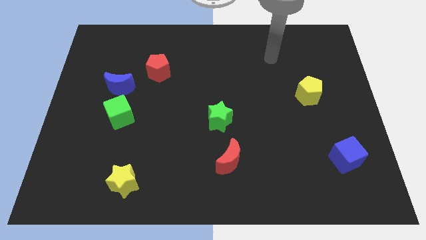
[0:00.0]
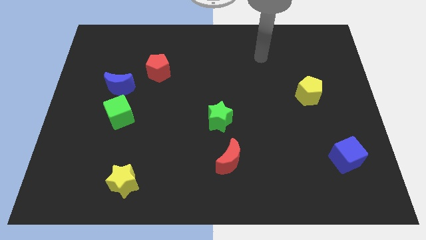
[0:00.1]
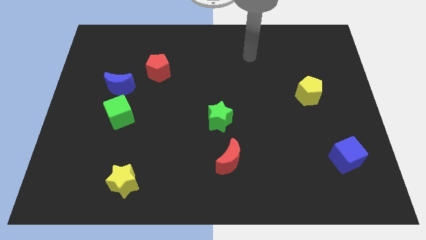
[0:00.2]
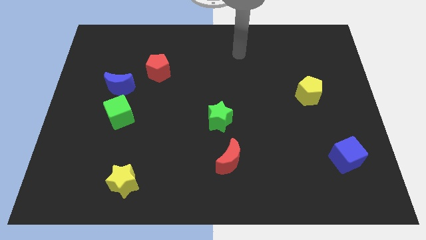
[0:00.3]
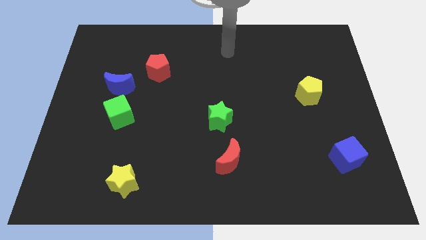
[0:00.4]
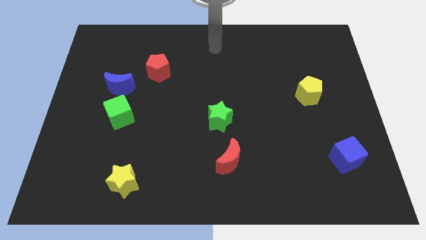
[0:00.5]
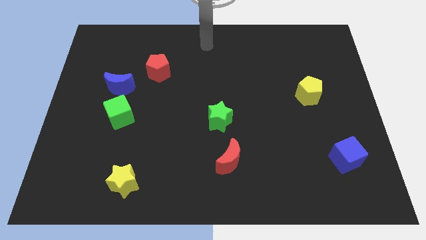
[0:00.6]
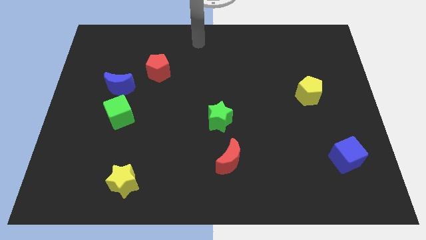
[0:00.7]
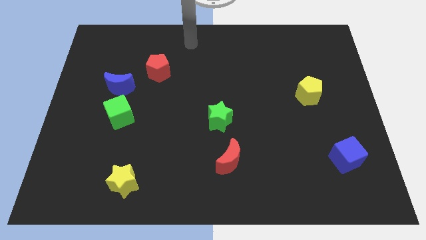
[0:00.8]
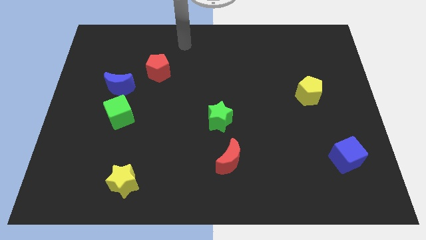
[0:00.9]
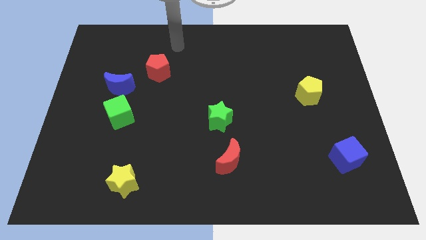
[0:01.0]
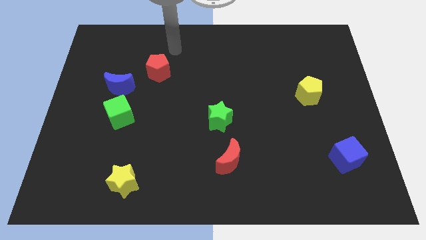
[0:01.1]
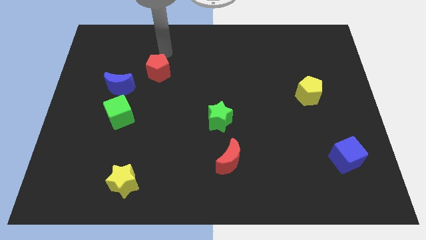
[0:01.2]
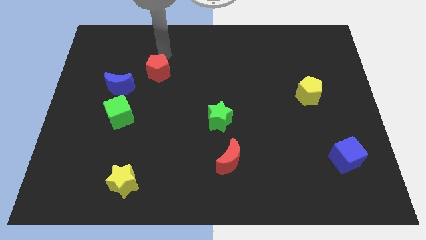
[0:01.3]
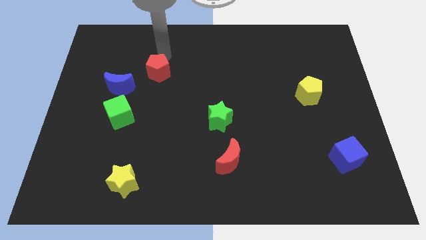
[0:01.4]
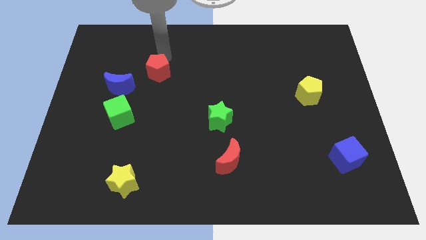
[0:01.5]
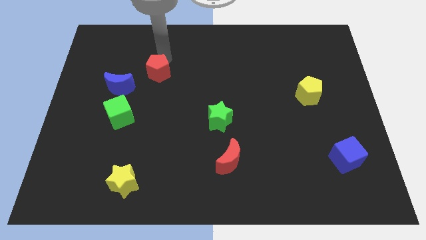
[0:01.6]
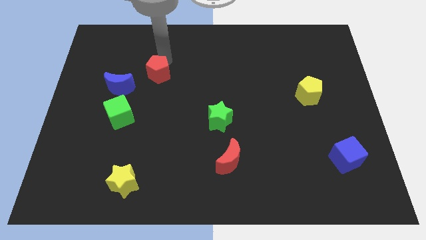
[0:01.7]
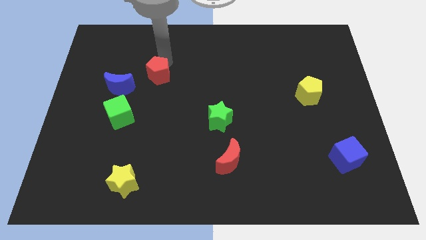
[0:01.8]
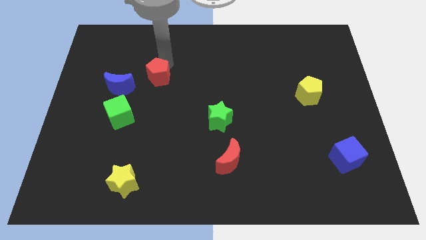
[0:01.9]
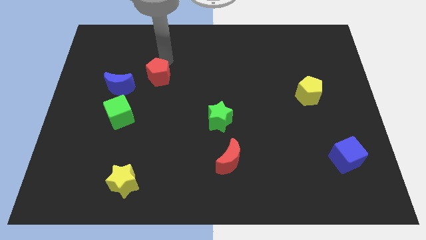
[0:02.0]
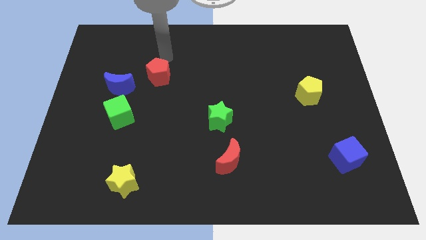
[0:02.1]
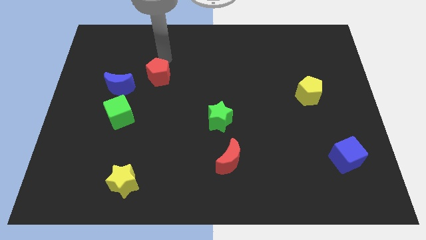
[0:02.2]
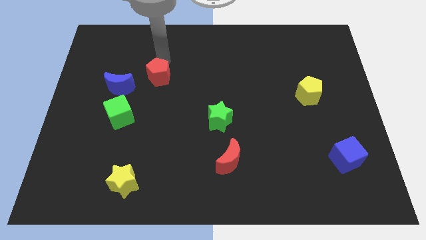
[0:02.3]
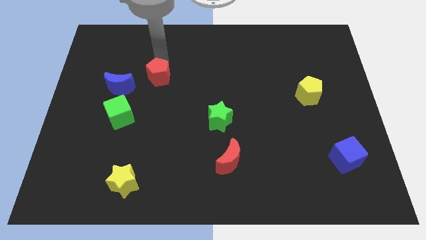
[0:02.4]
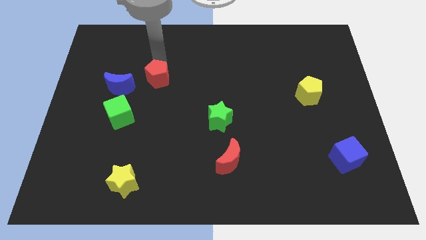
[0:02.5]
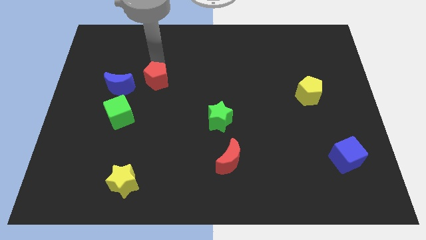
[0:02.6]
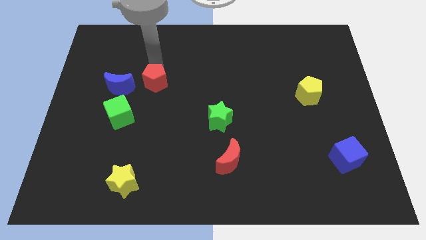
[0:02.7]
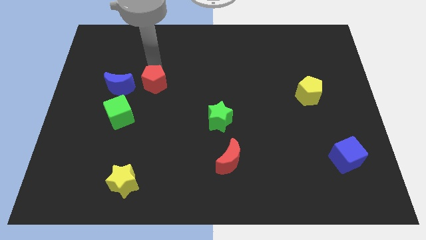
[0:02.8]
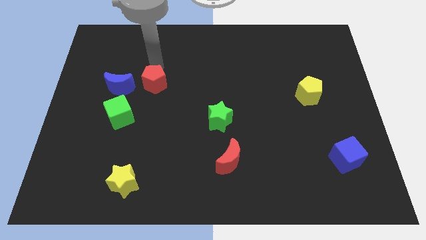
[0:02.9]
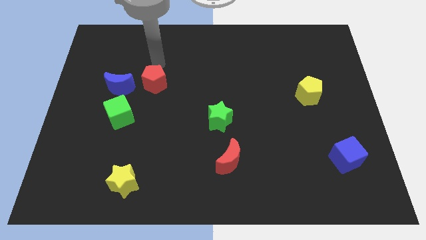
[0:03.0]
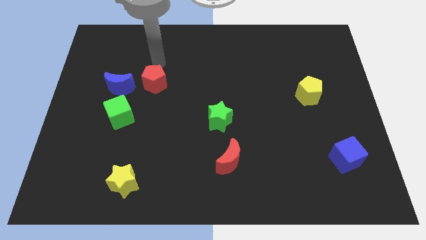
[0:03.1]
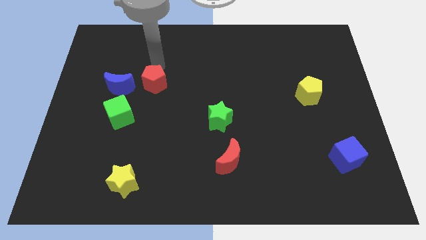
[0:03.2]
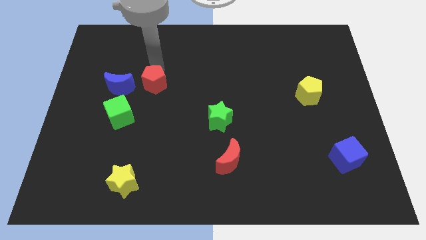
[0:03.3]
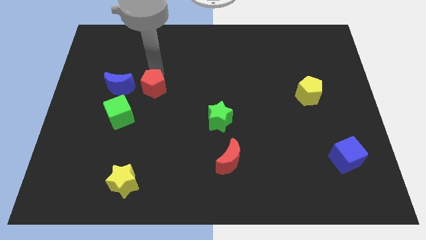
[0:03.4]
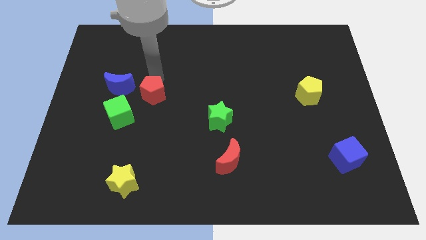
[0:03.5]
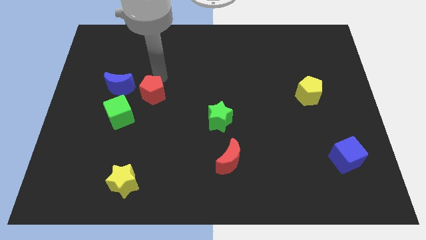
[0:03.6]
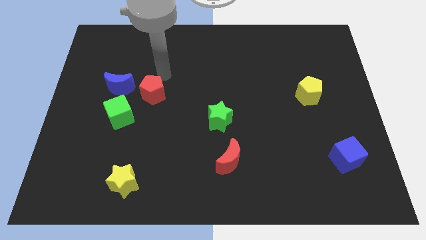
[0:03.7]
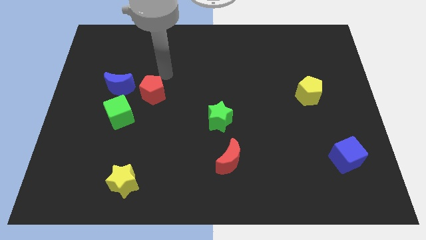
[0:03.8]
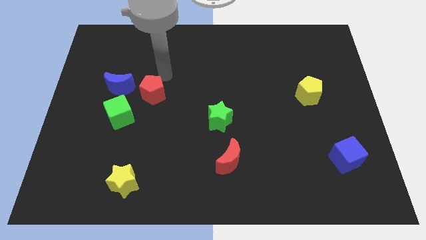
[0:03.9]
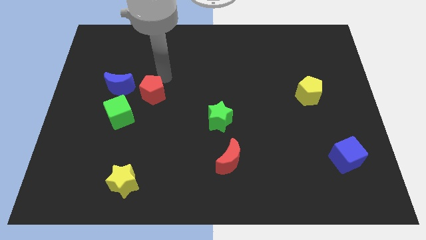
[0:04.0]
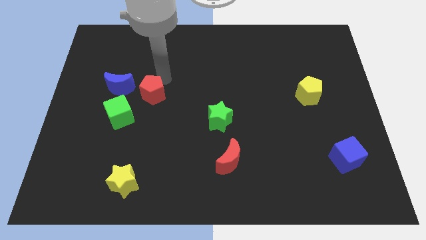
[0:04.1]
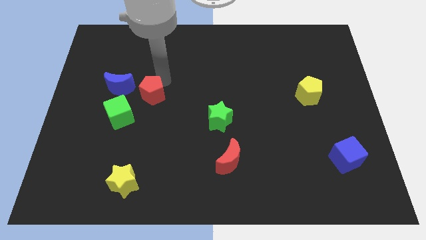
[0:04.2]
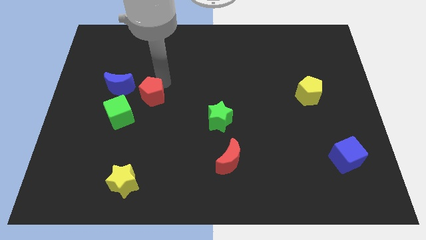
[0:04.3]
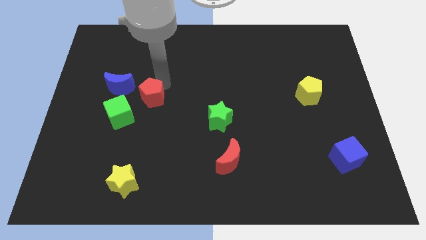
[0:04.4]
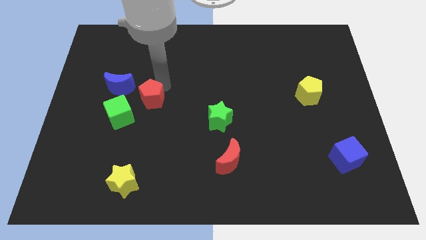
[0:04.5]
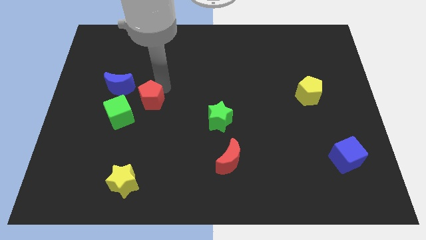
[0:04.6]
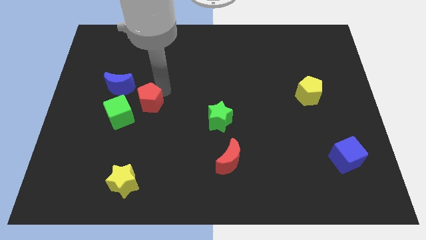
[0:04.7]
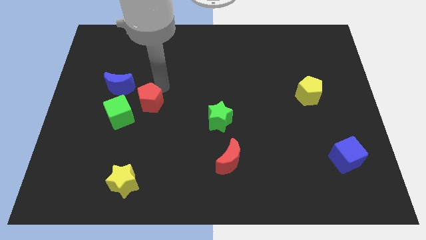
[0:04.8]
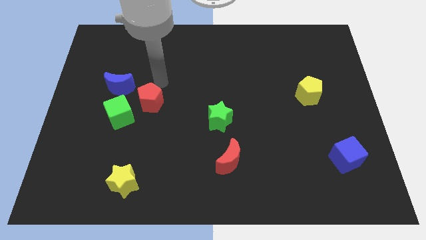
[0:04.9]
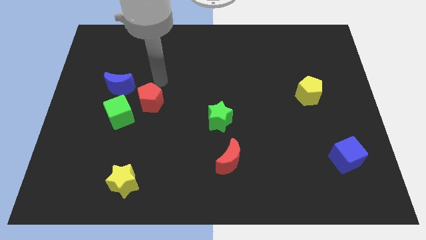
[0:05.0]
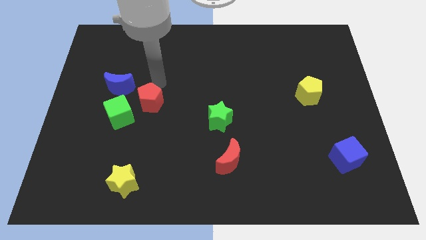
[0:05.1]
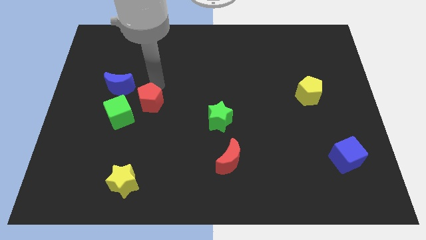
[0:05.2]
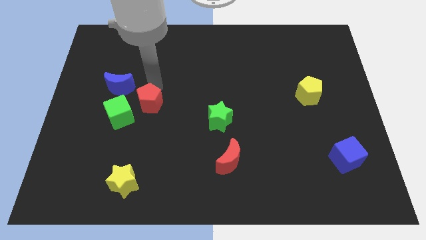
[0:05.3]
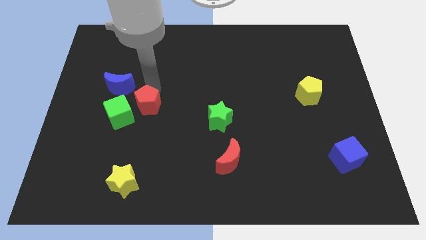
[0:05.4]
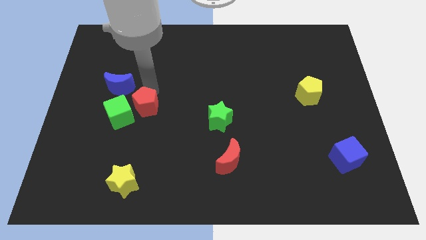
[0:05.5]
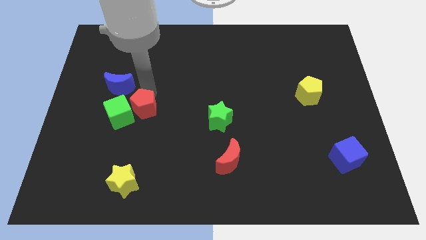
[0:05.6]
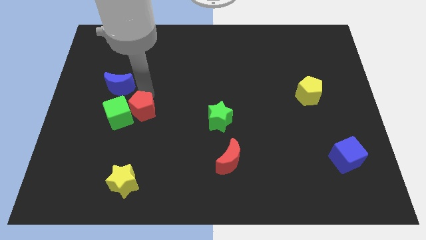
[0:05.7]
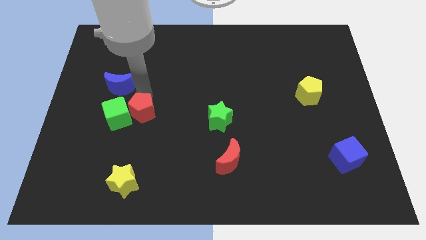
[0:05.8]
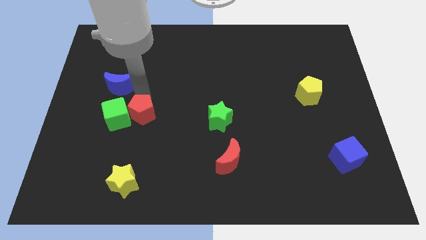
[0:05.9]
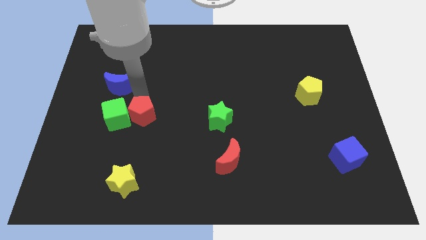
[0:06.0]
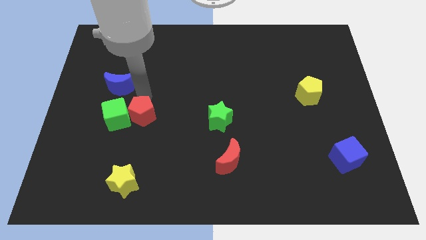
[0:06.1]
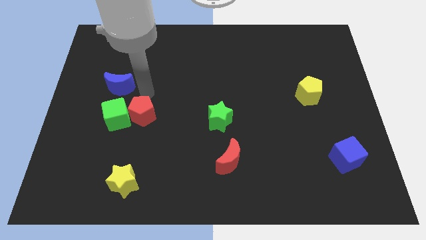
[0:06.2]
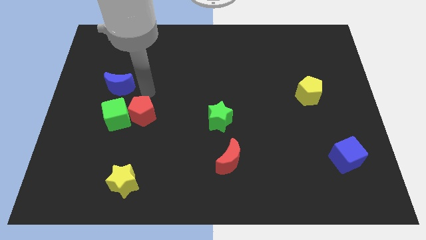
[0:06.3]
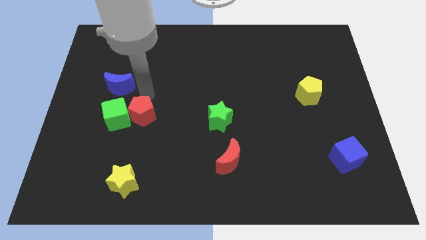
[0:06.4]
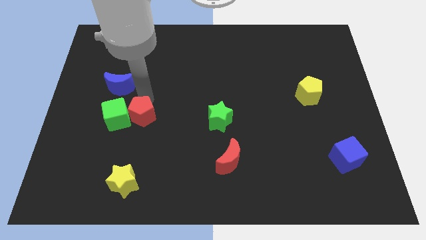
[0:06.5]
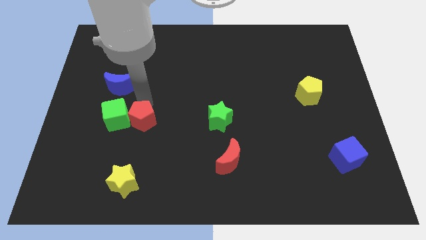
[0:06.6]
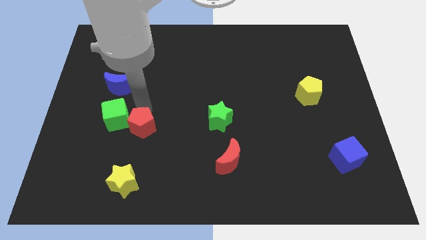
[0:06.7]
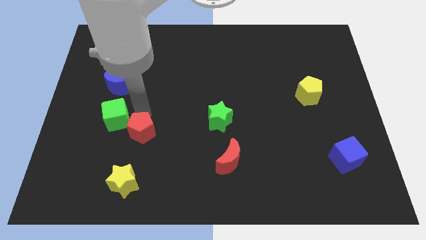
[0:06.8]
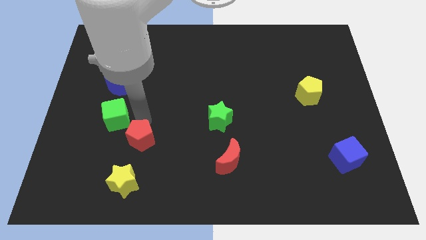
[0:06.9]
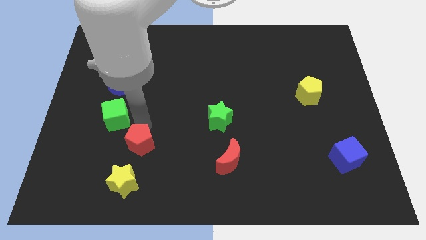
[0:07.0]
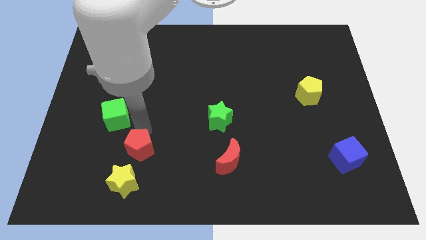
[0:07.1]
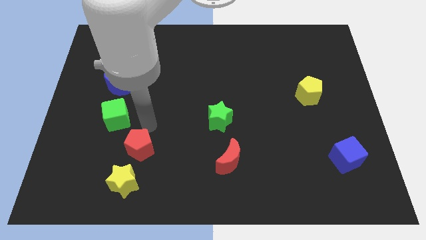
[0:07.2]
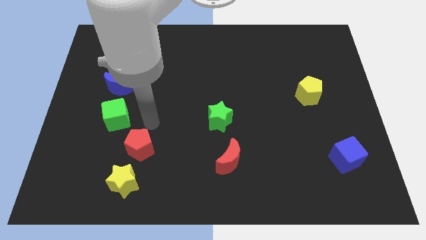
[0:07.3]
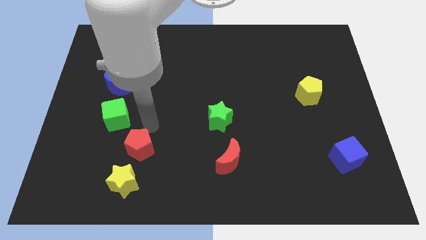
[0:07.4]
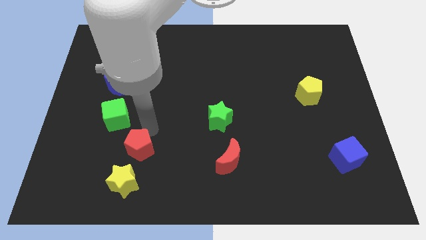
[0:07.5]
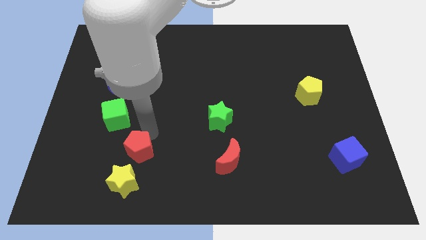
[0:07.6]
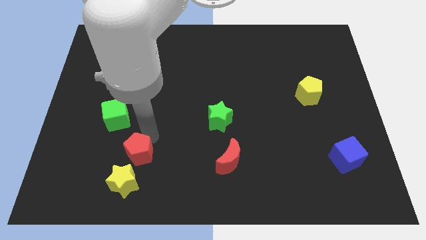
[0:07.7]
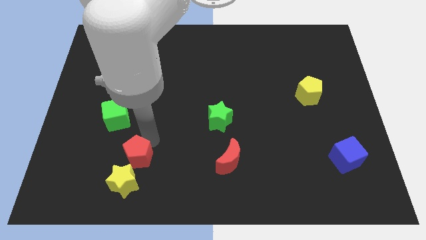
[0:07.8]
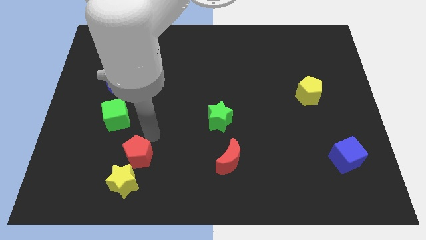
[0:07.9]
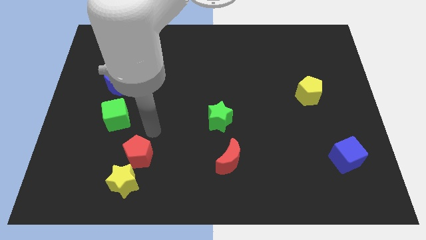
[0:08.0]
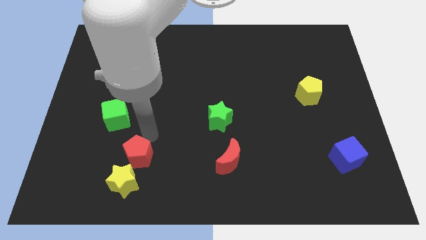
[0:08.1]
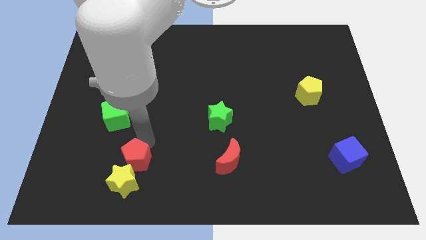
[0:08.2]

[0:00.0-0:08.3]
move the red pentagon towards the yellow star

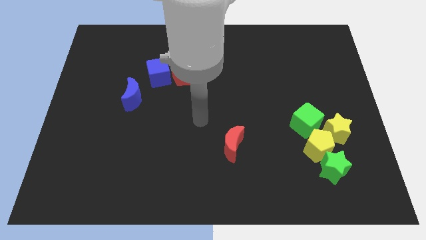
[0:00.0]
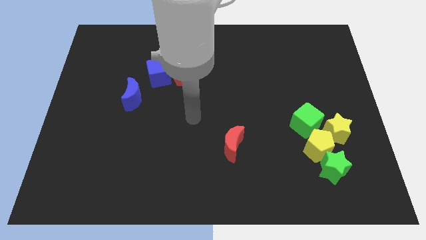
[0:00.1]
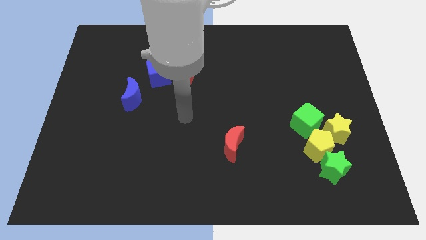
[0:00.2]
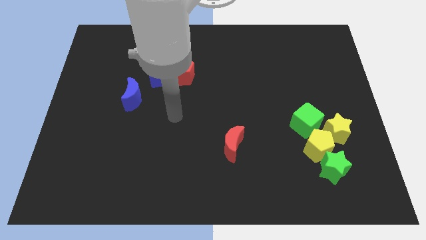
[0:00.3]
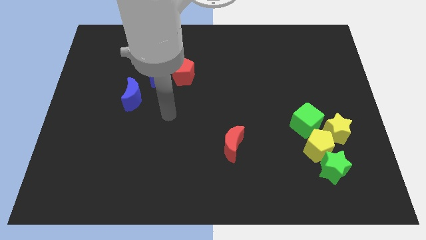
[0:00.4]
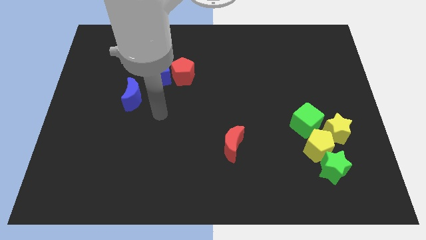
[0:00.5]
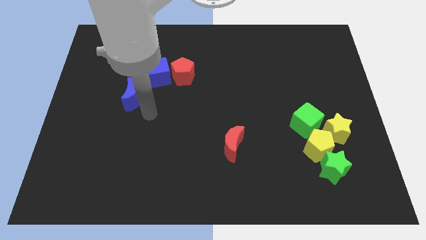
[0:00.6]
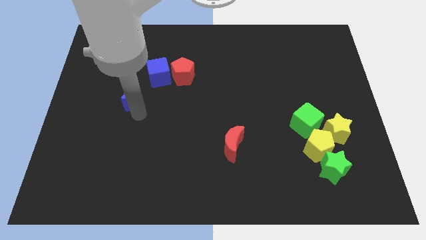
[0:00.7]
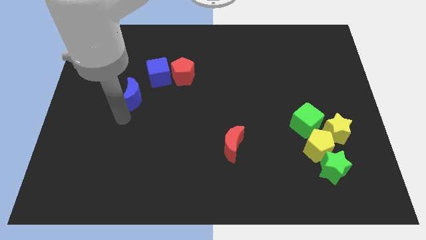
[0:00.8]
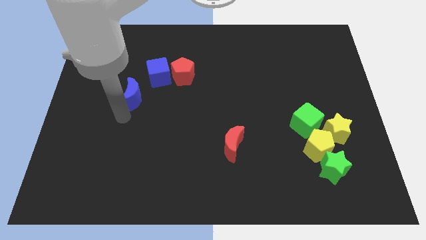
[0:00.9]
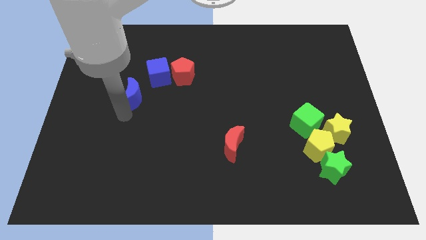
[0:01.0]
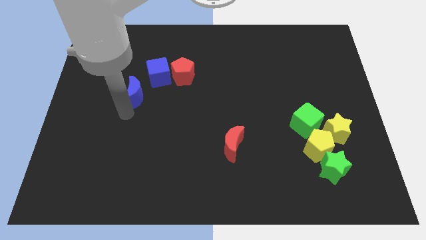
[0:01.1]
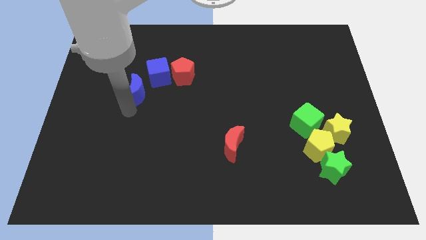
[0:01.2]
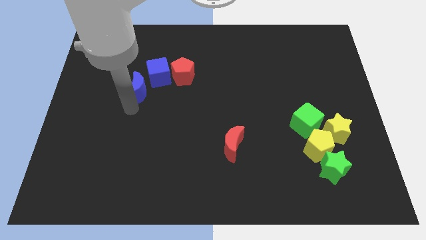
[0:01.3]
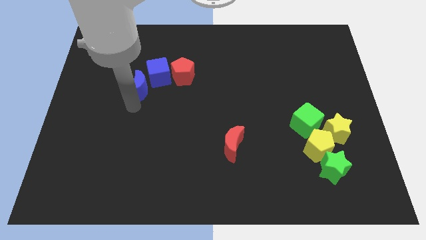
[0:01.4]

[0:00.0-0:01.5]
move the blue moon next to the blue cube
